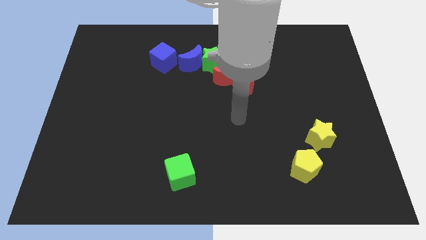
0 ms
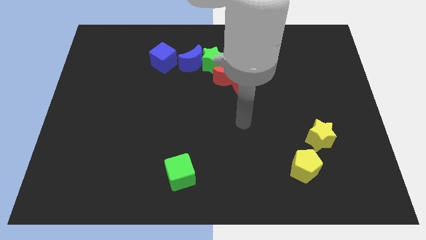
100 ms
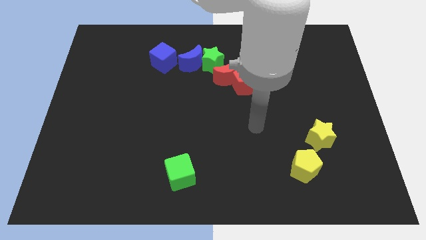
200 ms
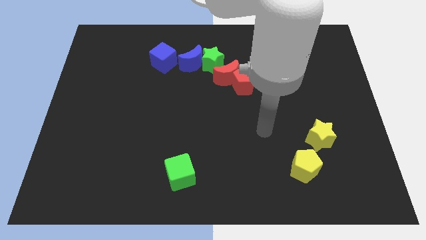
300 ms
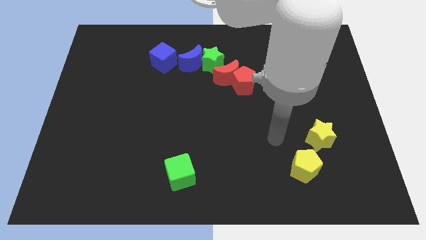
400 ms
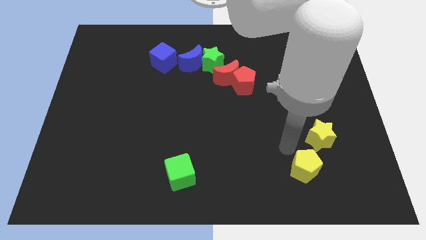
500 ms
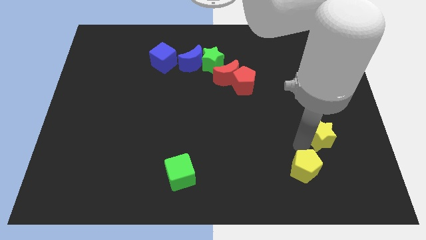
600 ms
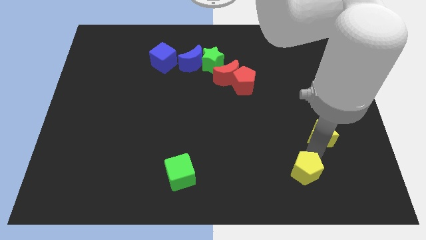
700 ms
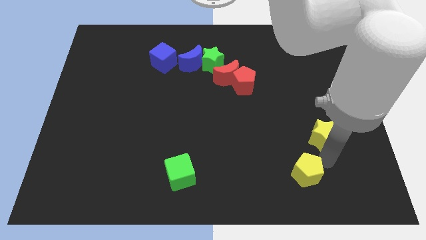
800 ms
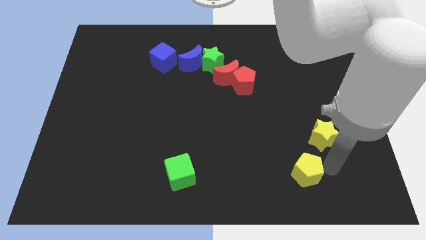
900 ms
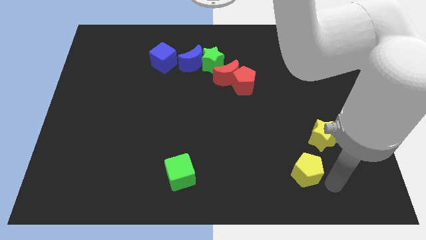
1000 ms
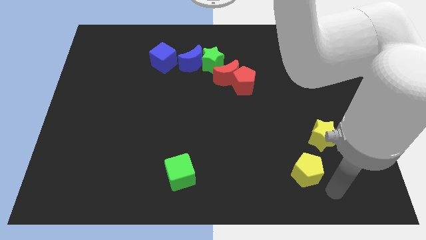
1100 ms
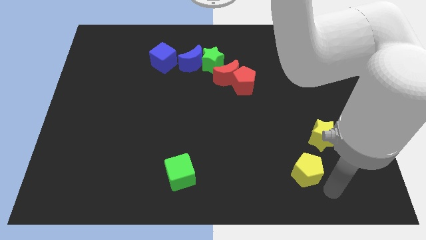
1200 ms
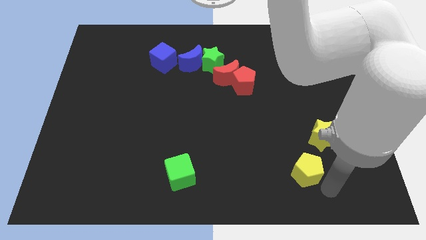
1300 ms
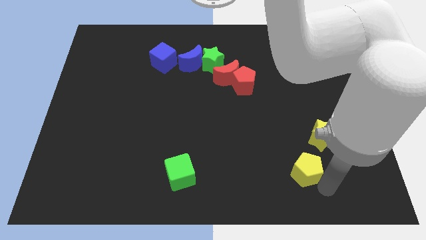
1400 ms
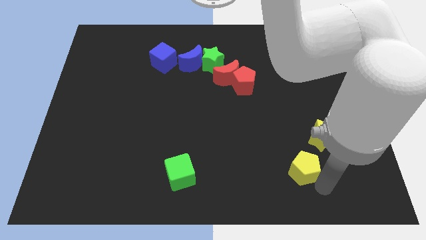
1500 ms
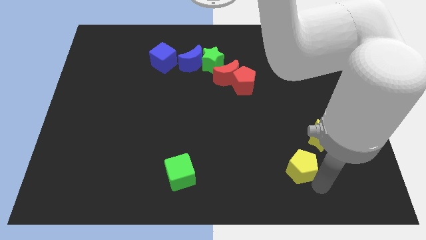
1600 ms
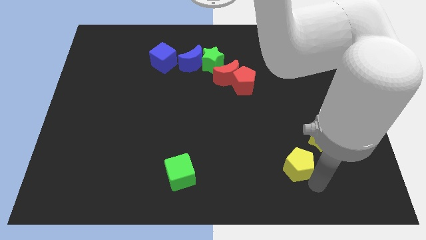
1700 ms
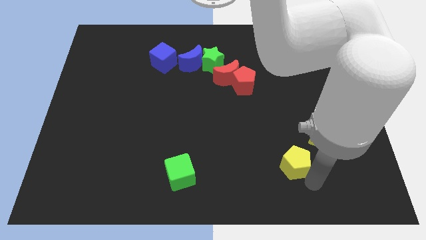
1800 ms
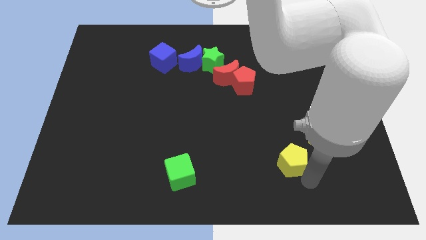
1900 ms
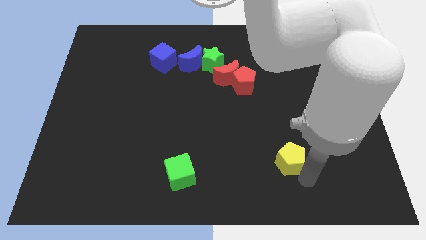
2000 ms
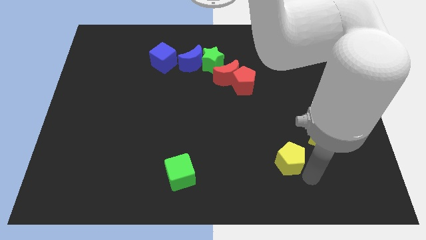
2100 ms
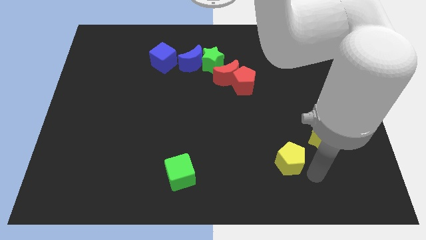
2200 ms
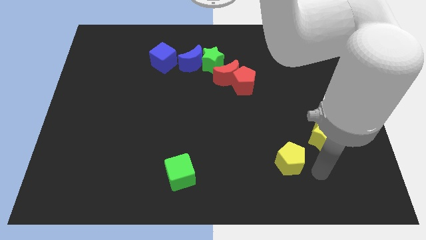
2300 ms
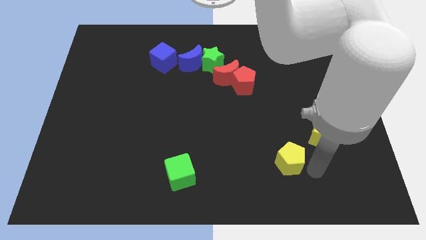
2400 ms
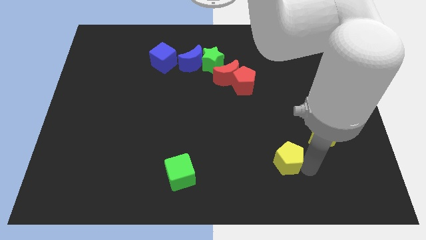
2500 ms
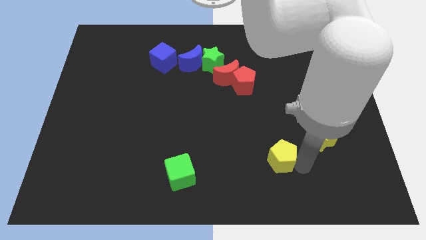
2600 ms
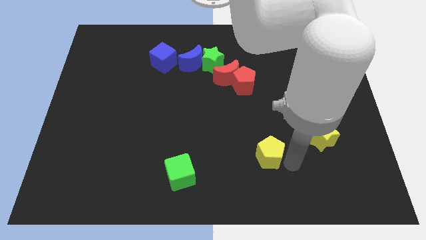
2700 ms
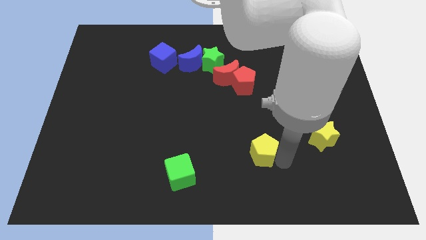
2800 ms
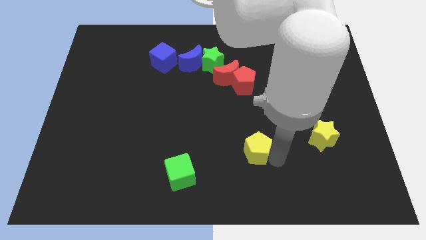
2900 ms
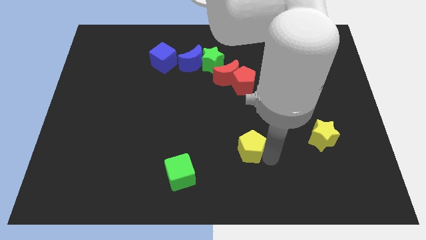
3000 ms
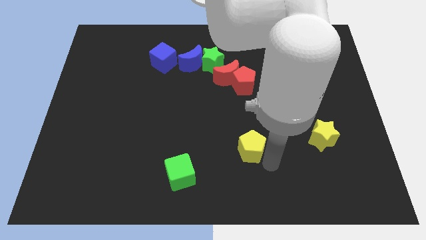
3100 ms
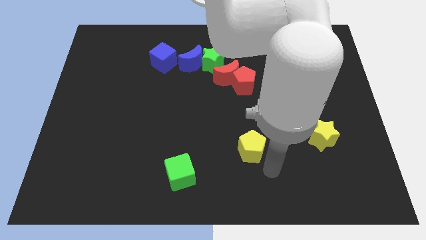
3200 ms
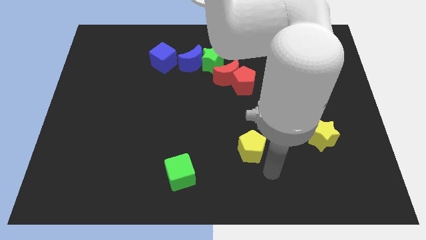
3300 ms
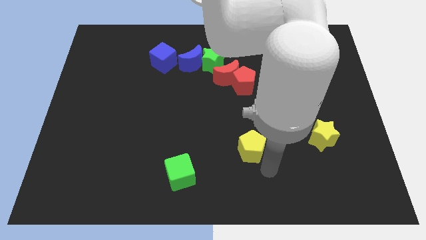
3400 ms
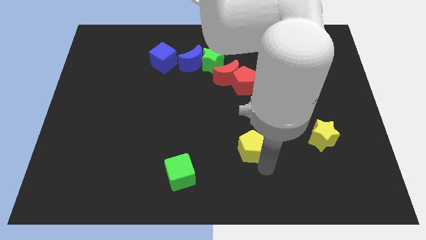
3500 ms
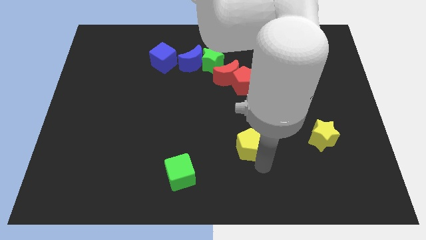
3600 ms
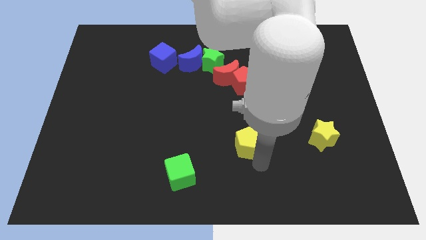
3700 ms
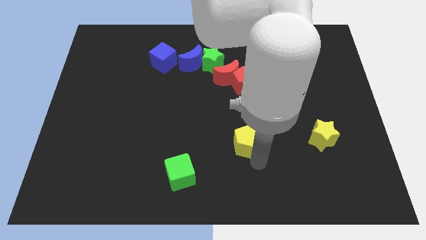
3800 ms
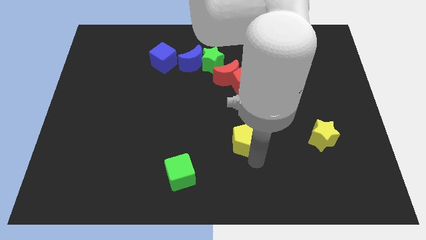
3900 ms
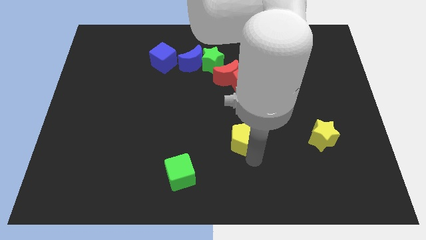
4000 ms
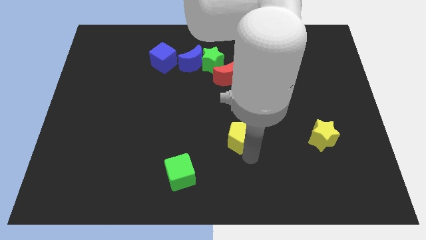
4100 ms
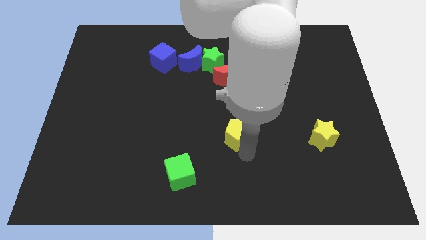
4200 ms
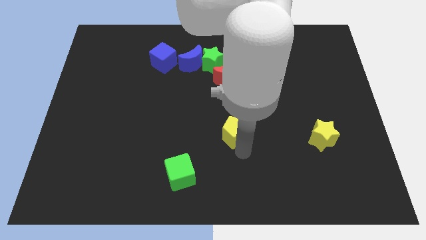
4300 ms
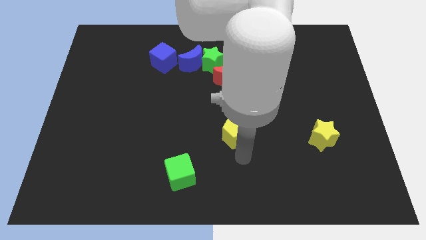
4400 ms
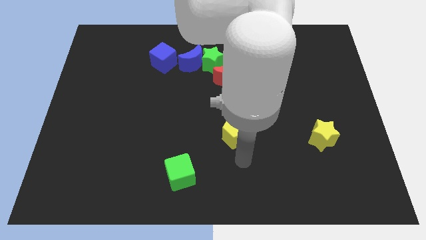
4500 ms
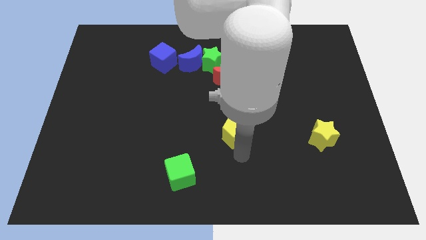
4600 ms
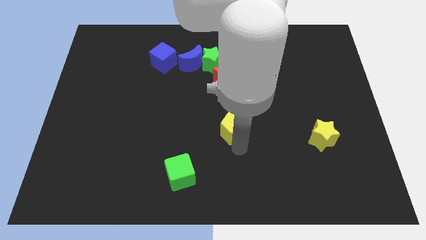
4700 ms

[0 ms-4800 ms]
put the yellow pentagon to the bottom side of the red moon

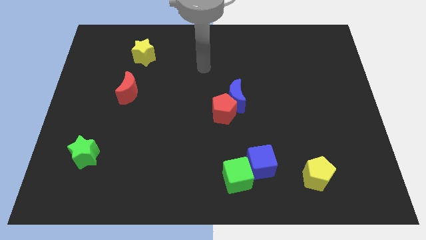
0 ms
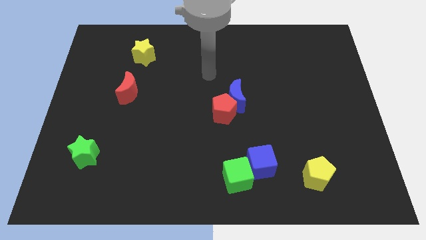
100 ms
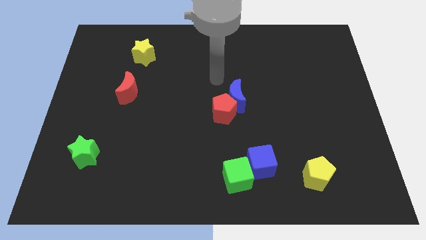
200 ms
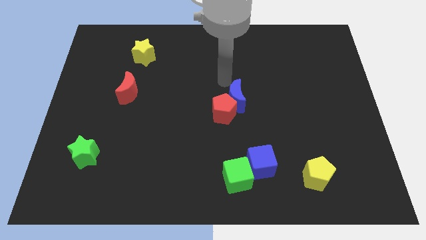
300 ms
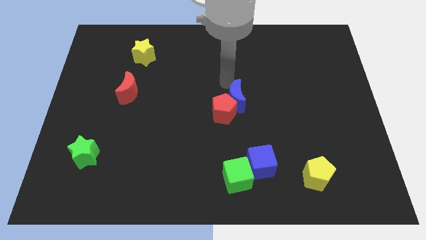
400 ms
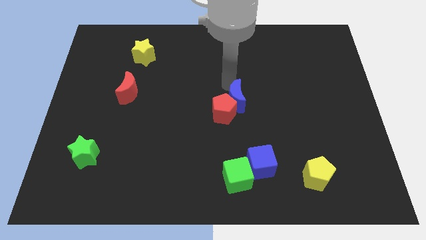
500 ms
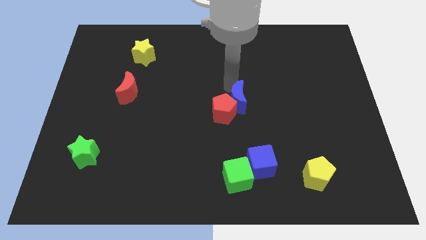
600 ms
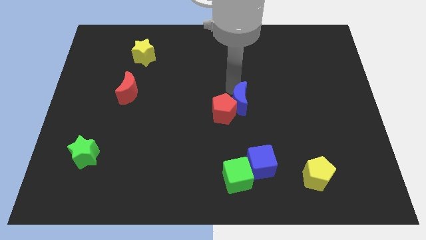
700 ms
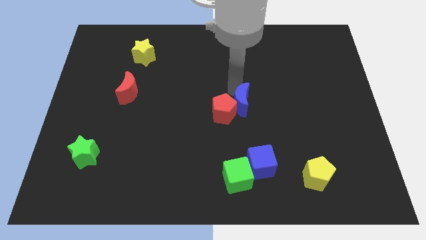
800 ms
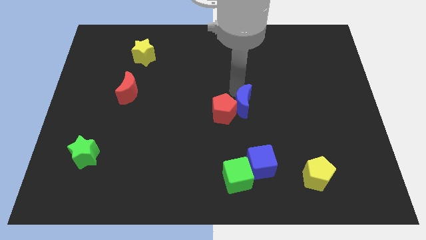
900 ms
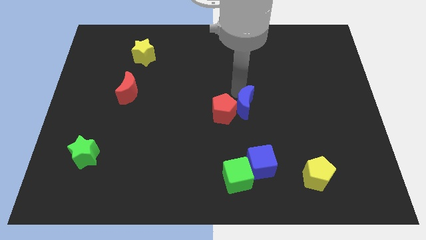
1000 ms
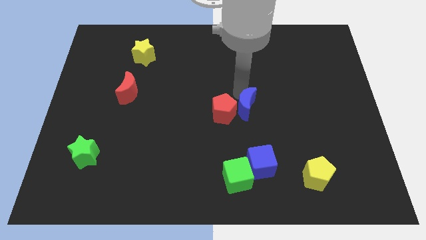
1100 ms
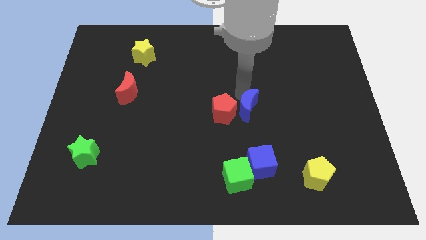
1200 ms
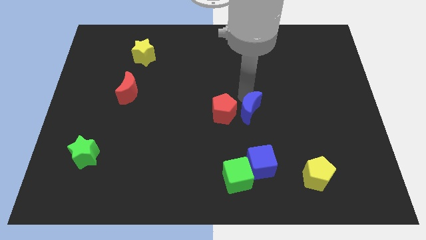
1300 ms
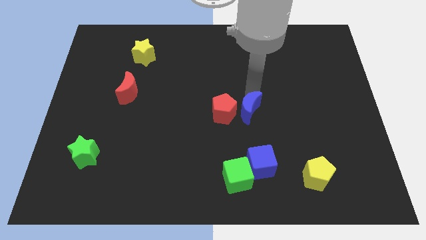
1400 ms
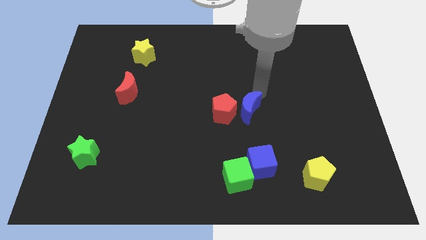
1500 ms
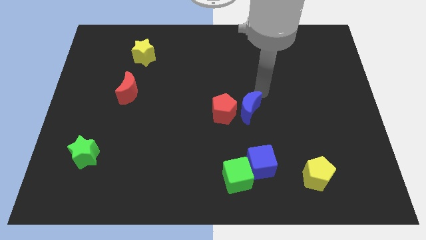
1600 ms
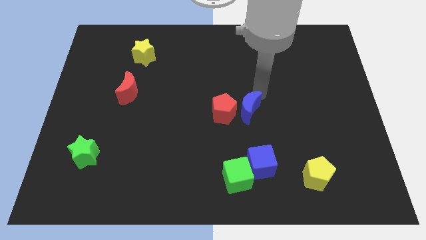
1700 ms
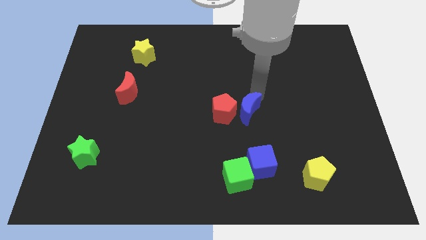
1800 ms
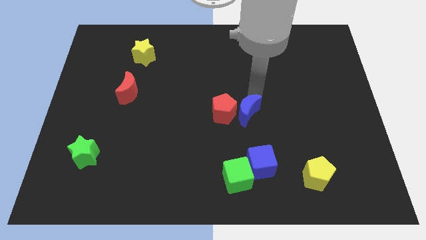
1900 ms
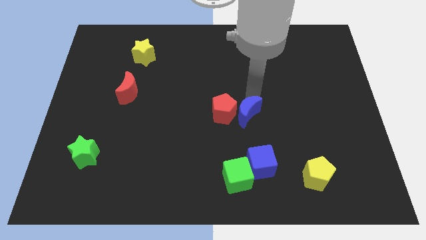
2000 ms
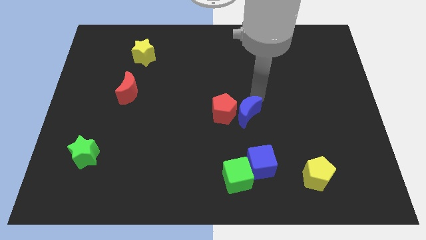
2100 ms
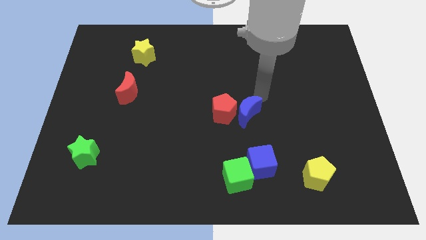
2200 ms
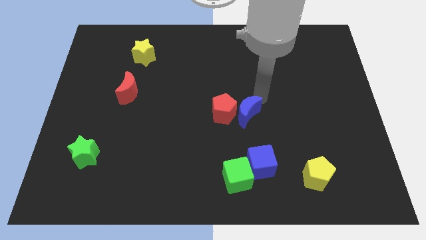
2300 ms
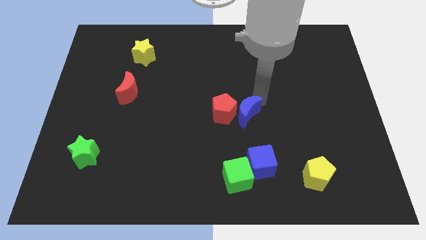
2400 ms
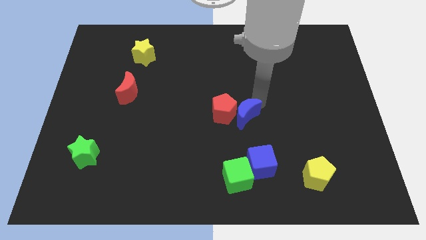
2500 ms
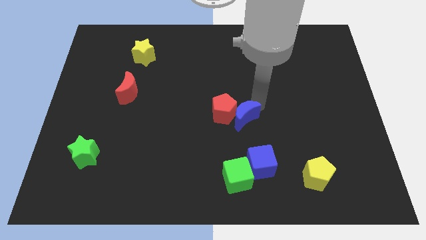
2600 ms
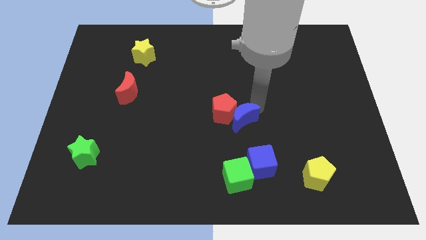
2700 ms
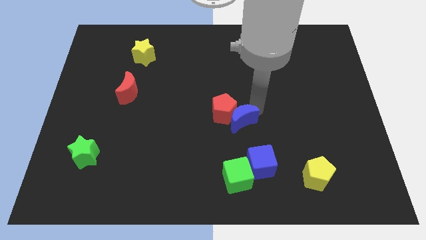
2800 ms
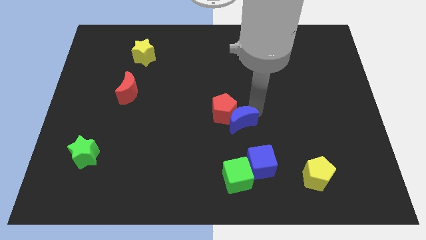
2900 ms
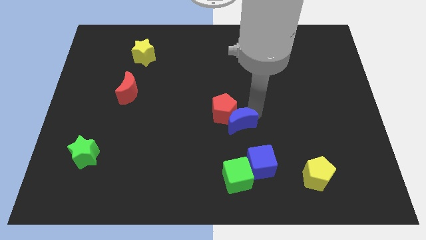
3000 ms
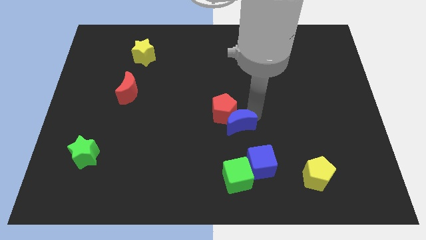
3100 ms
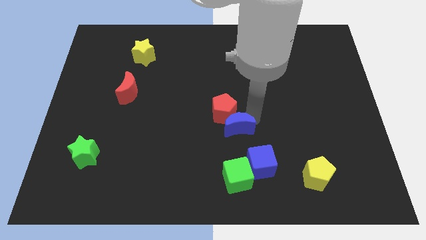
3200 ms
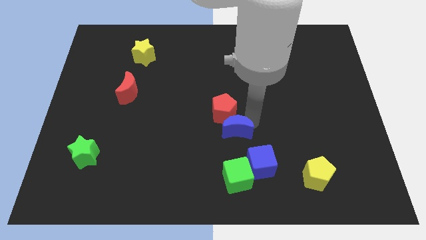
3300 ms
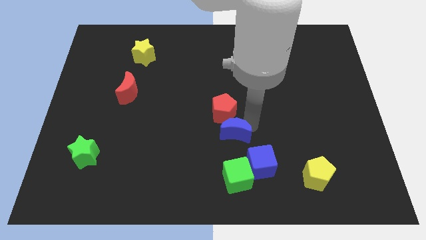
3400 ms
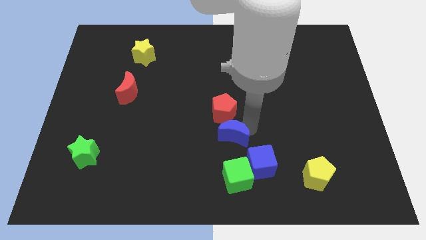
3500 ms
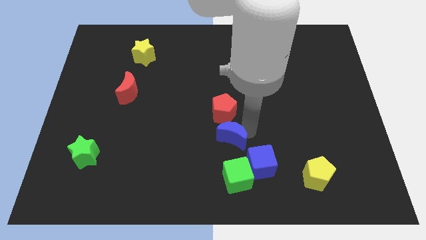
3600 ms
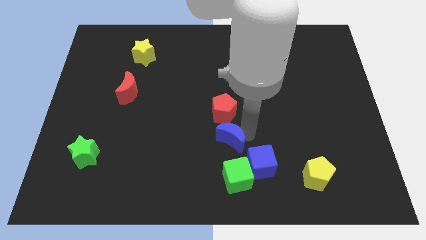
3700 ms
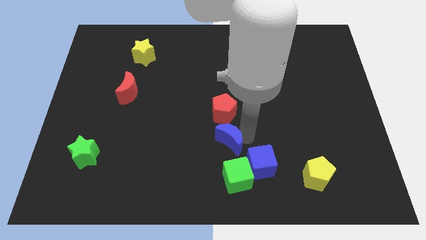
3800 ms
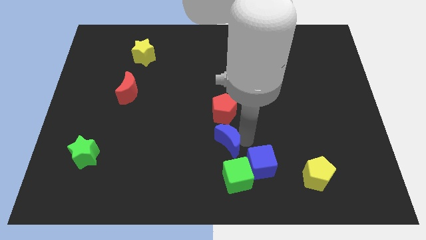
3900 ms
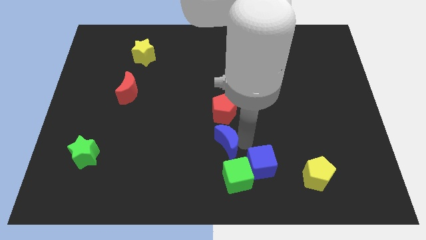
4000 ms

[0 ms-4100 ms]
move the blue moon to the top left of the green cube
